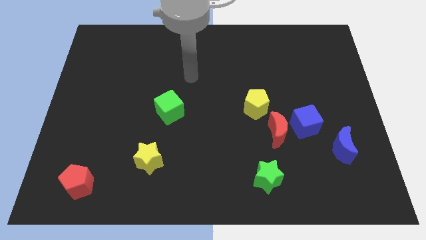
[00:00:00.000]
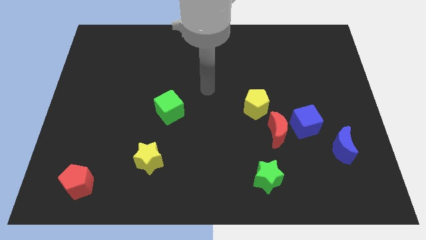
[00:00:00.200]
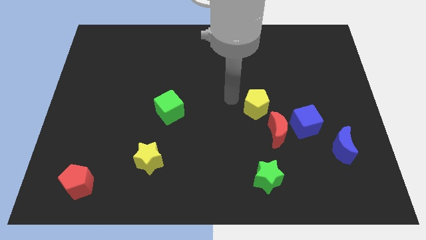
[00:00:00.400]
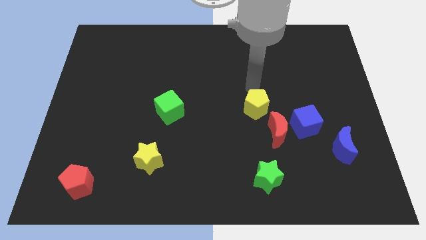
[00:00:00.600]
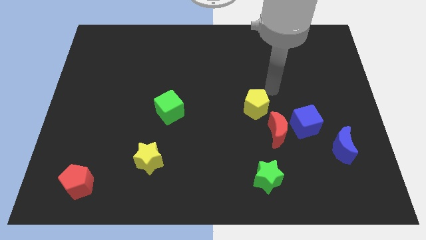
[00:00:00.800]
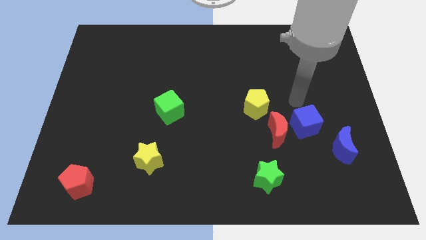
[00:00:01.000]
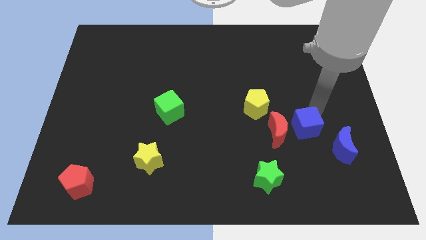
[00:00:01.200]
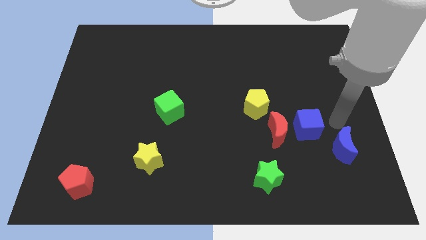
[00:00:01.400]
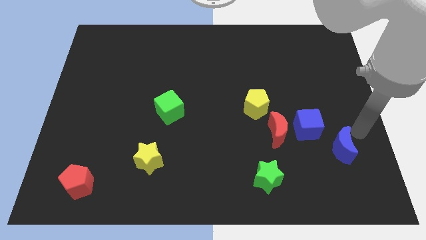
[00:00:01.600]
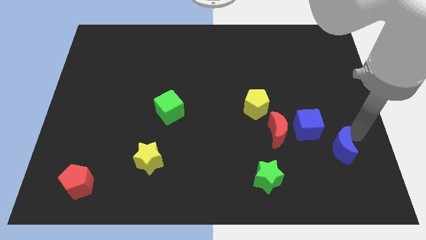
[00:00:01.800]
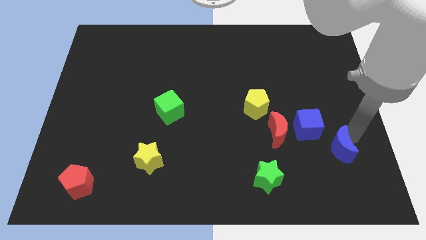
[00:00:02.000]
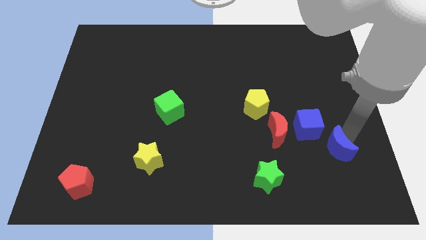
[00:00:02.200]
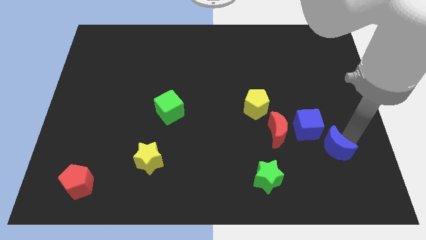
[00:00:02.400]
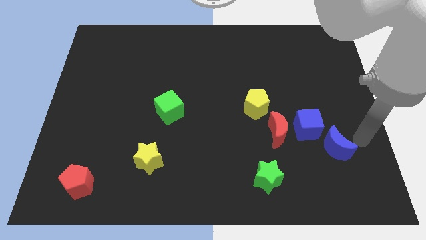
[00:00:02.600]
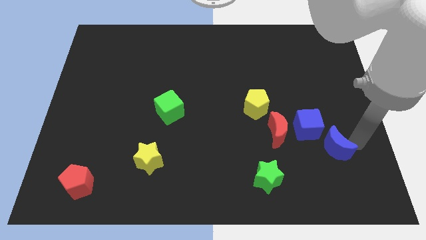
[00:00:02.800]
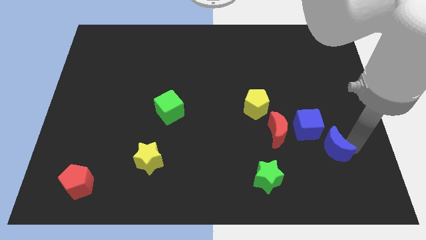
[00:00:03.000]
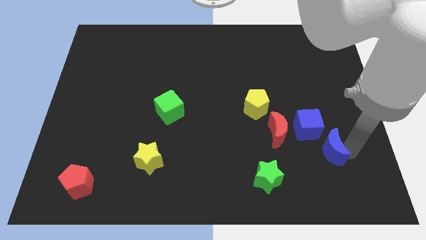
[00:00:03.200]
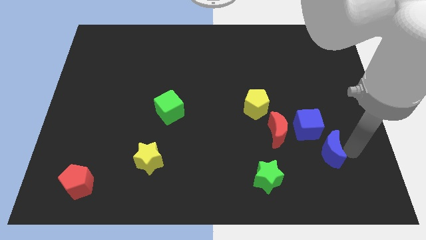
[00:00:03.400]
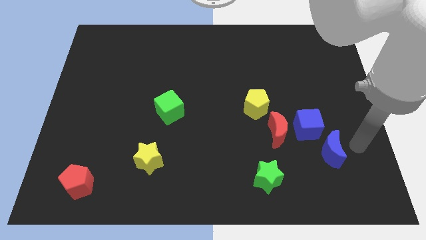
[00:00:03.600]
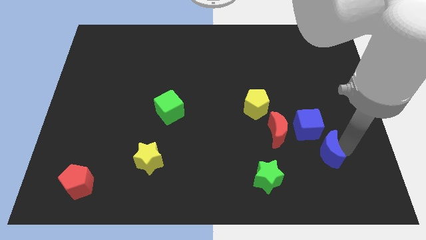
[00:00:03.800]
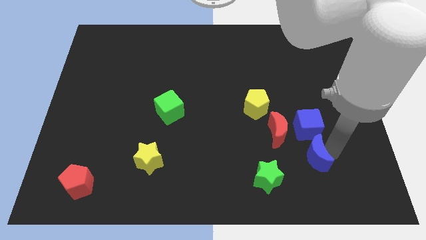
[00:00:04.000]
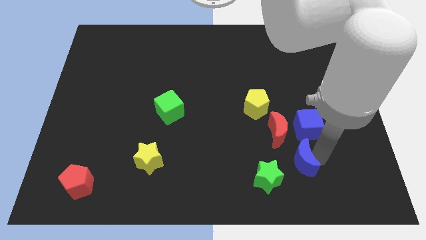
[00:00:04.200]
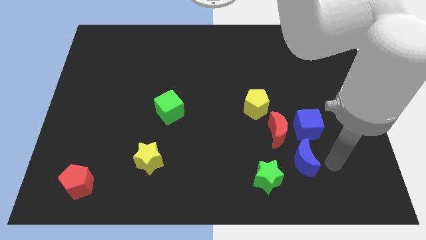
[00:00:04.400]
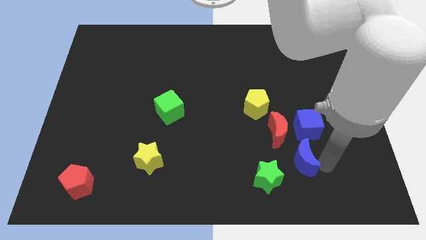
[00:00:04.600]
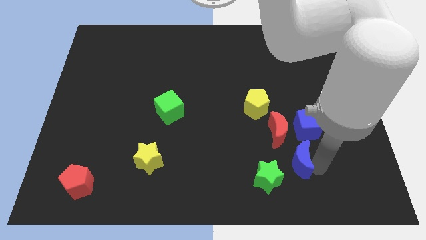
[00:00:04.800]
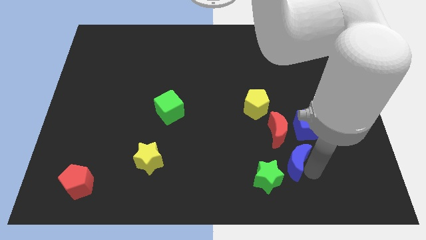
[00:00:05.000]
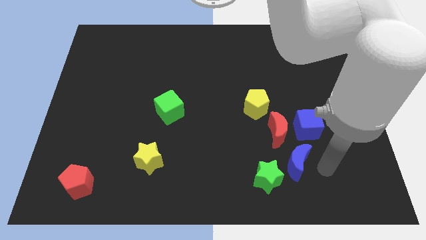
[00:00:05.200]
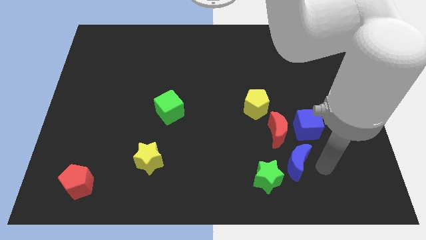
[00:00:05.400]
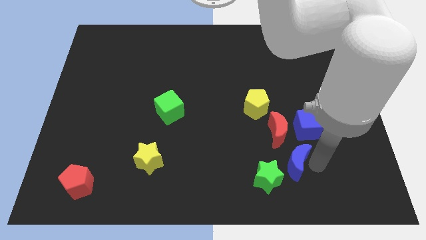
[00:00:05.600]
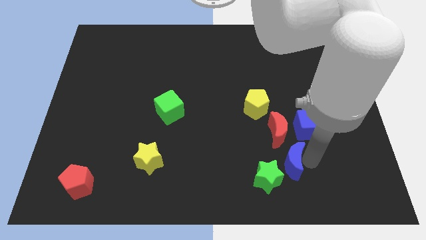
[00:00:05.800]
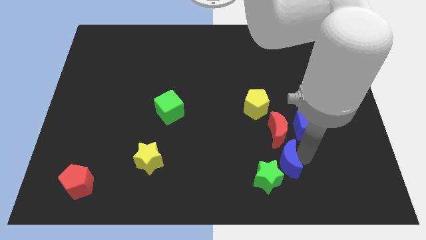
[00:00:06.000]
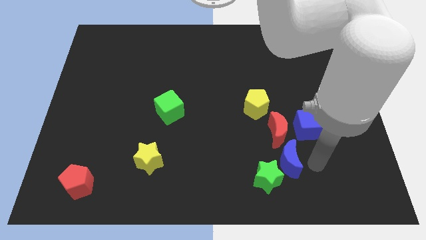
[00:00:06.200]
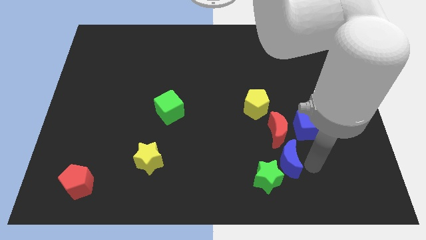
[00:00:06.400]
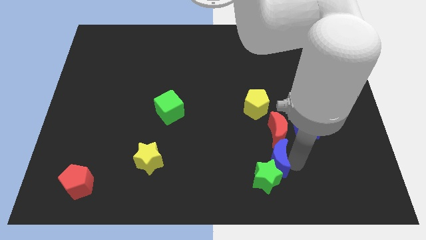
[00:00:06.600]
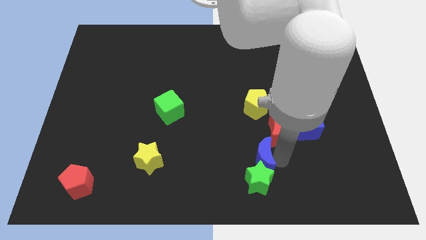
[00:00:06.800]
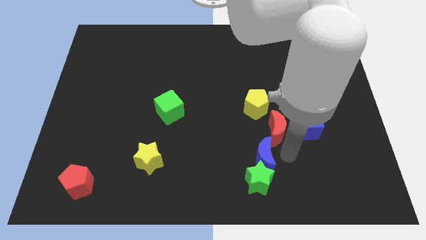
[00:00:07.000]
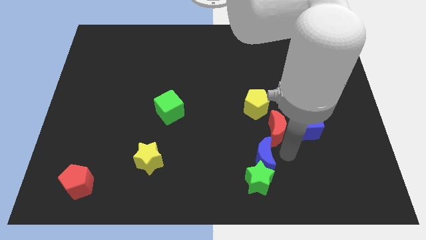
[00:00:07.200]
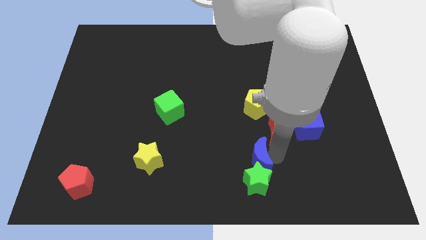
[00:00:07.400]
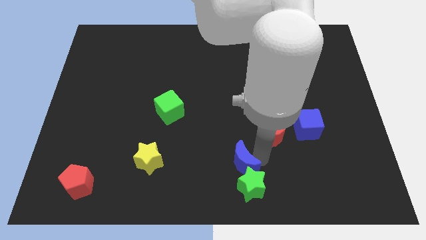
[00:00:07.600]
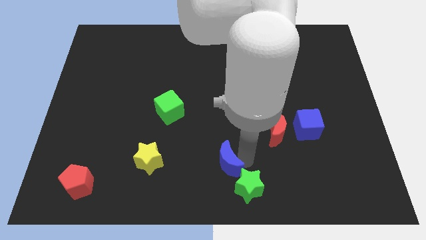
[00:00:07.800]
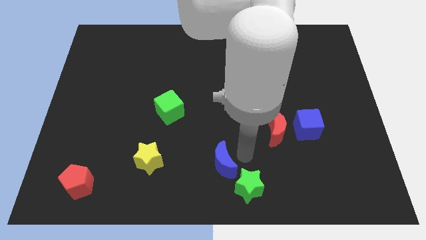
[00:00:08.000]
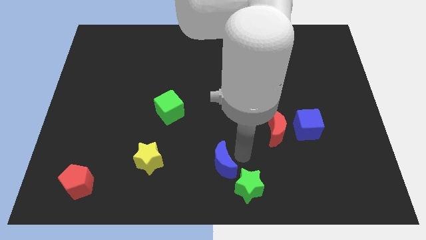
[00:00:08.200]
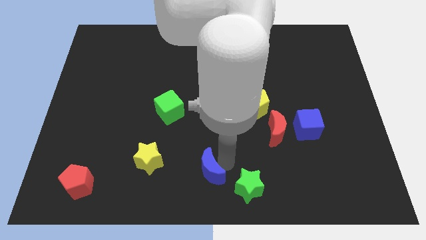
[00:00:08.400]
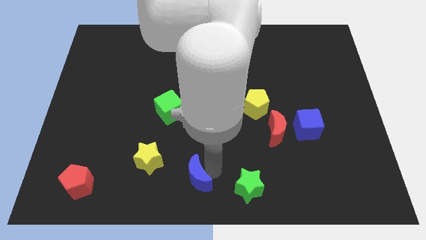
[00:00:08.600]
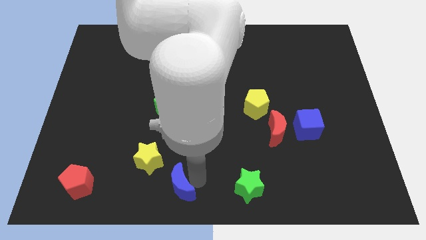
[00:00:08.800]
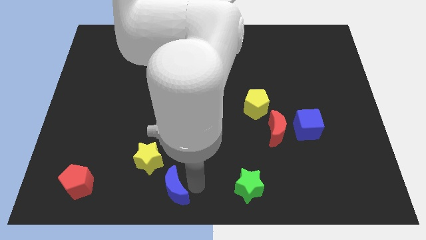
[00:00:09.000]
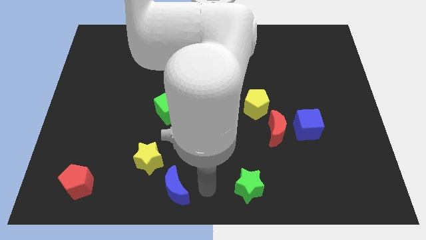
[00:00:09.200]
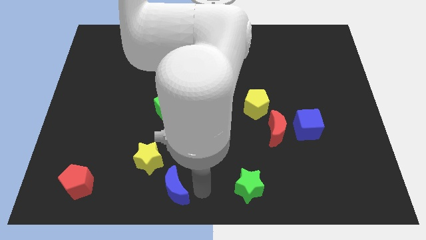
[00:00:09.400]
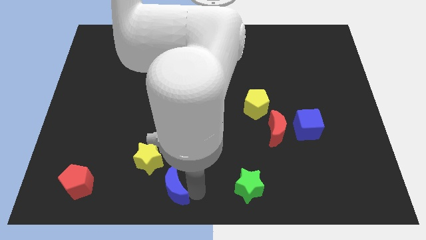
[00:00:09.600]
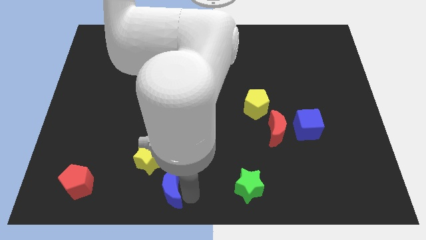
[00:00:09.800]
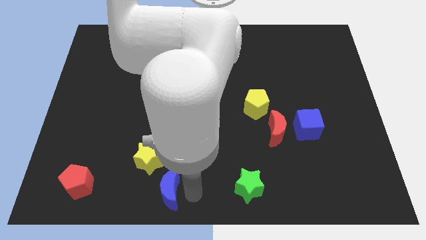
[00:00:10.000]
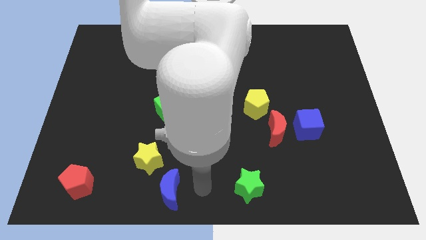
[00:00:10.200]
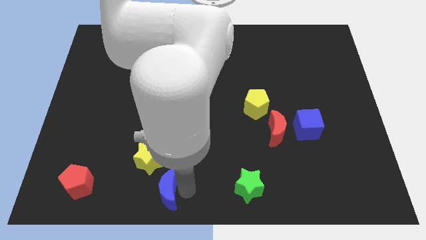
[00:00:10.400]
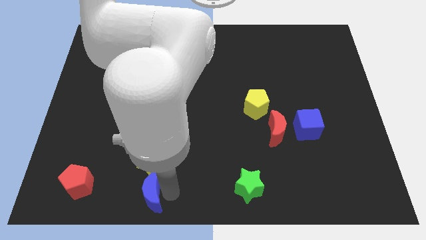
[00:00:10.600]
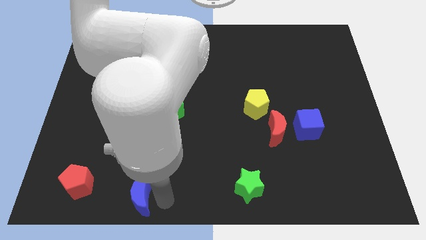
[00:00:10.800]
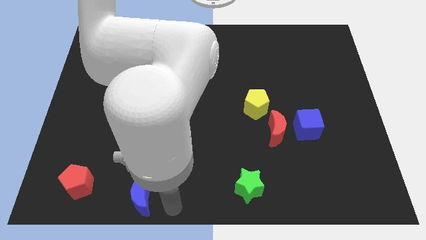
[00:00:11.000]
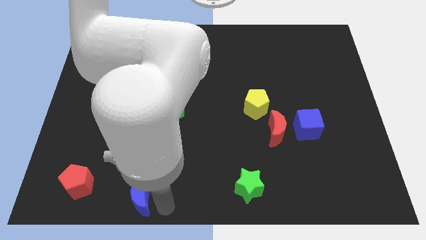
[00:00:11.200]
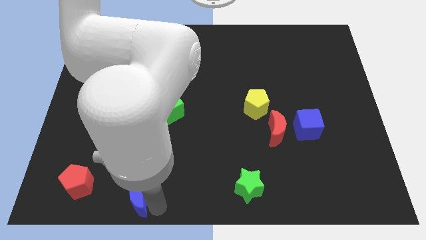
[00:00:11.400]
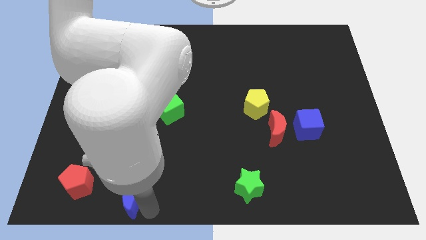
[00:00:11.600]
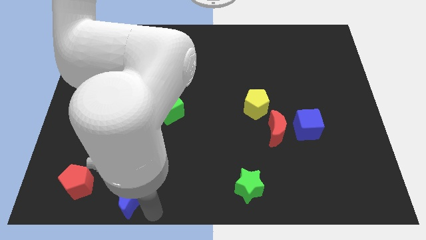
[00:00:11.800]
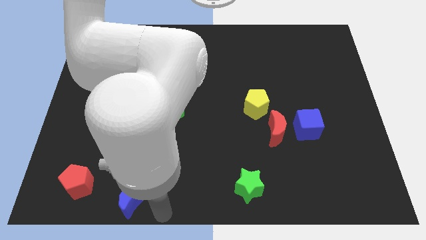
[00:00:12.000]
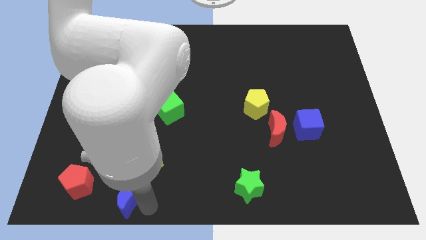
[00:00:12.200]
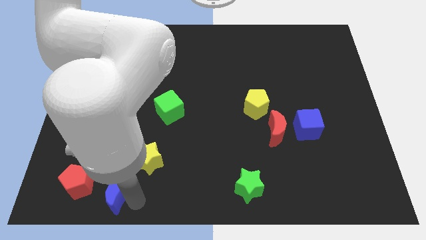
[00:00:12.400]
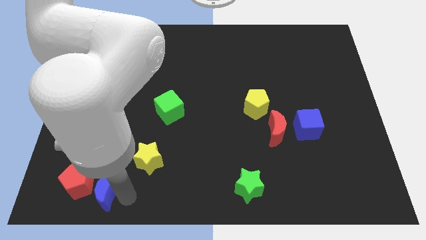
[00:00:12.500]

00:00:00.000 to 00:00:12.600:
push the blue moon to the red pentagon

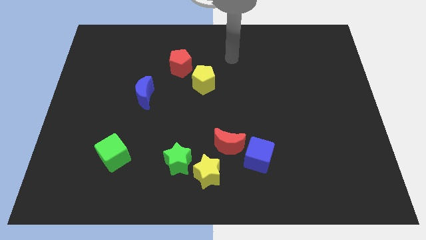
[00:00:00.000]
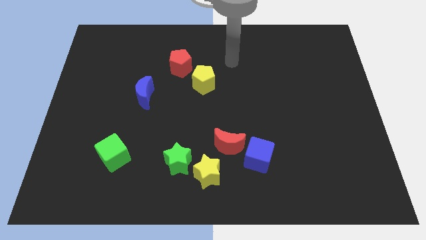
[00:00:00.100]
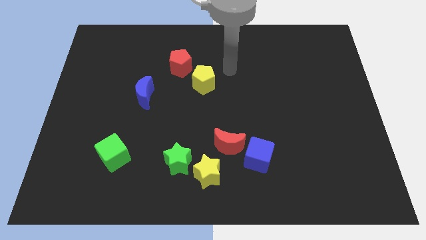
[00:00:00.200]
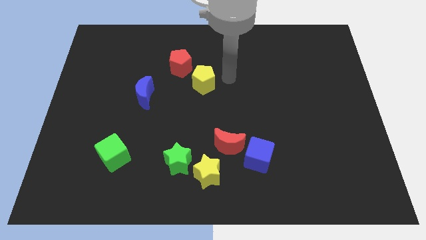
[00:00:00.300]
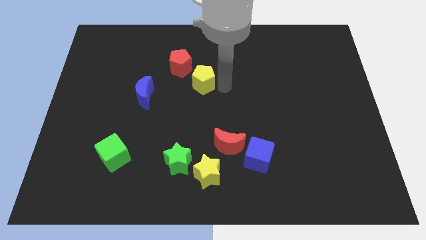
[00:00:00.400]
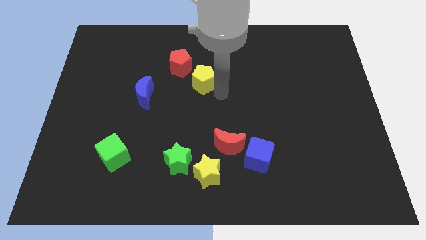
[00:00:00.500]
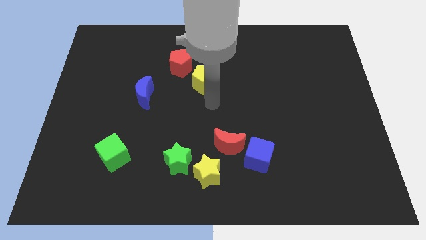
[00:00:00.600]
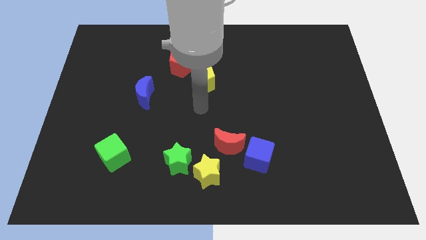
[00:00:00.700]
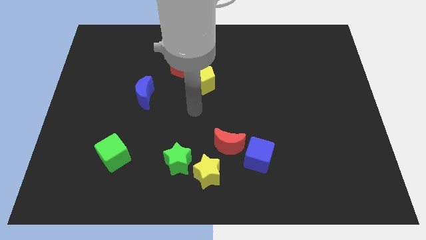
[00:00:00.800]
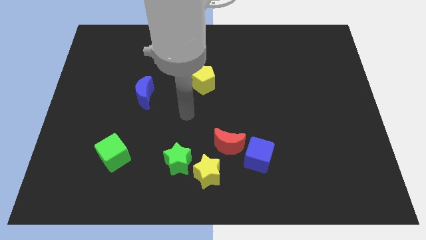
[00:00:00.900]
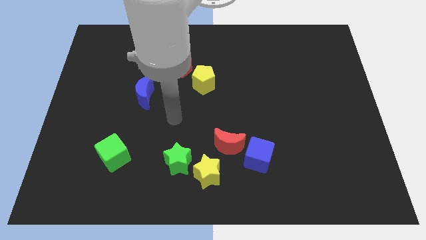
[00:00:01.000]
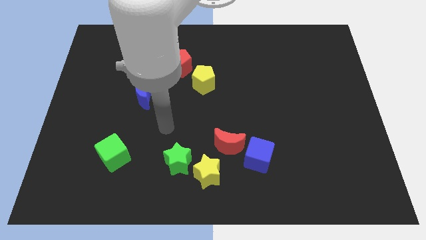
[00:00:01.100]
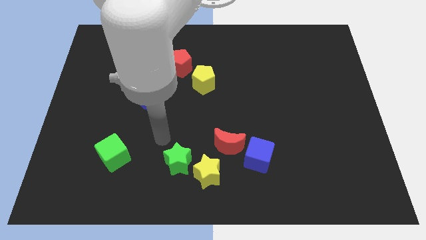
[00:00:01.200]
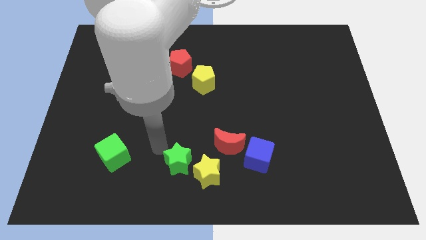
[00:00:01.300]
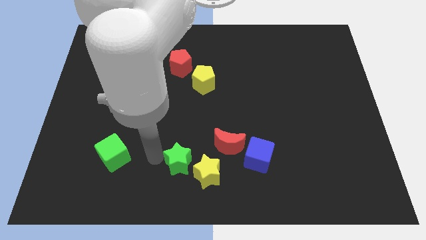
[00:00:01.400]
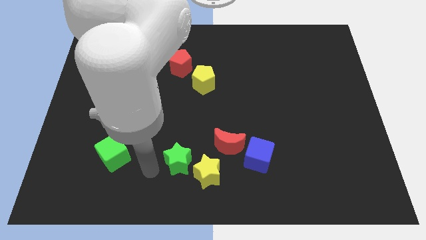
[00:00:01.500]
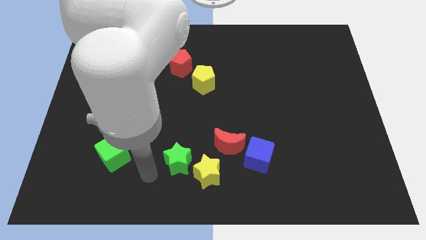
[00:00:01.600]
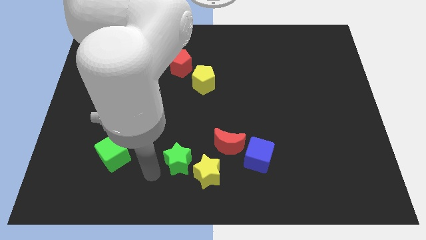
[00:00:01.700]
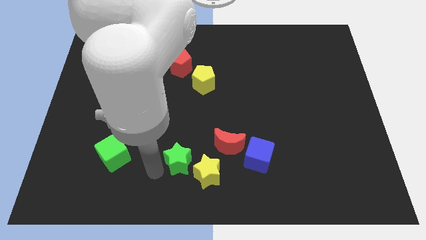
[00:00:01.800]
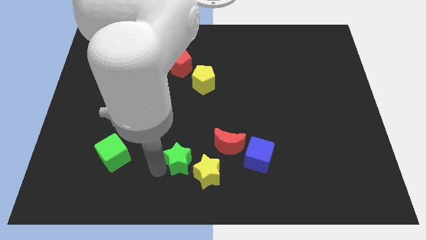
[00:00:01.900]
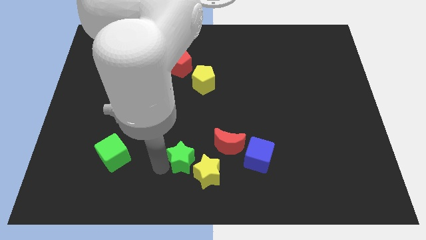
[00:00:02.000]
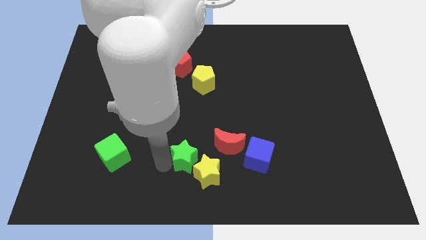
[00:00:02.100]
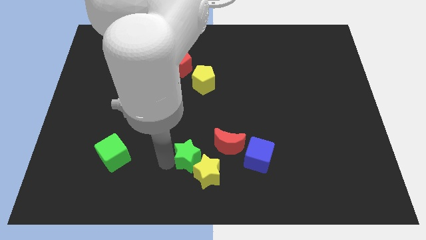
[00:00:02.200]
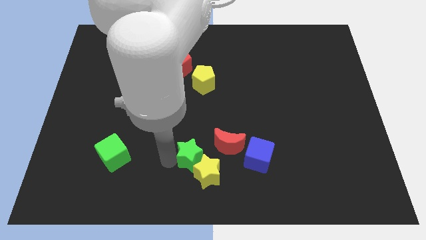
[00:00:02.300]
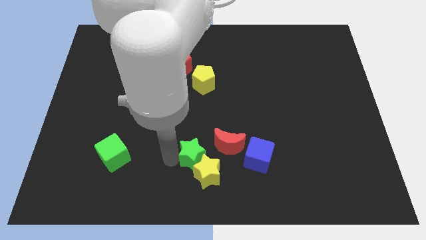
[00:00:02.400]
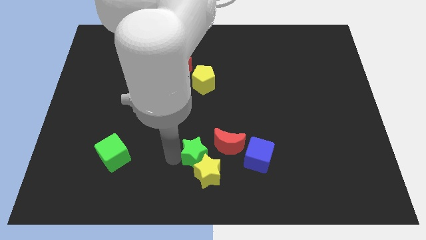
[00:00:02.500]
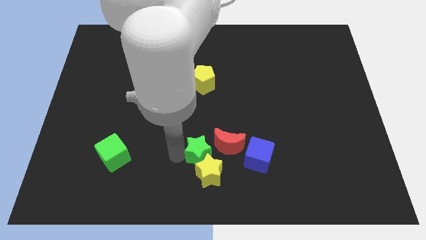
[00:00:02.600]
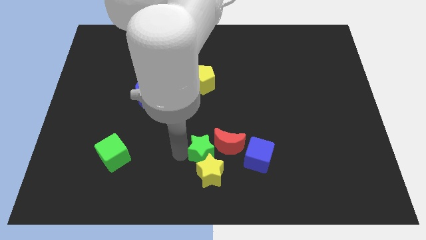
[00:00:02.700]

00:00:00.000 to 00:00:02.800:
push the green star towards the red moon
